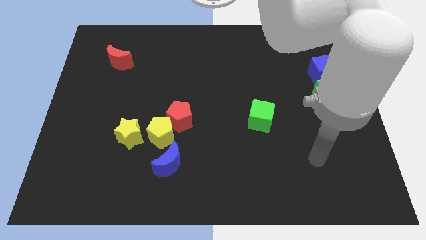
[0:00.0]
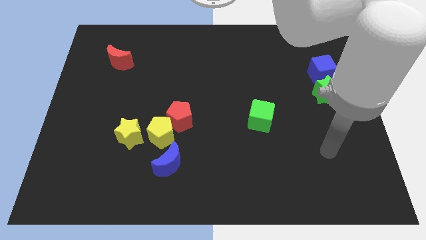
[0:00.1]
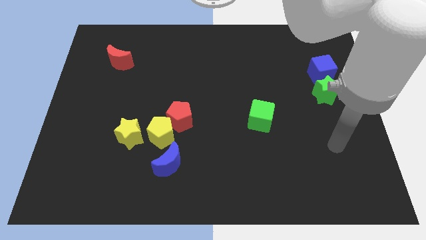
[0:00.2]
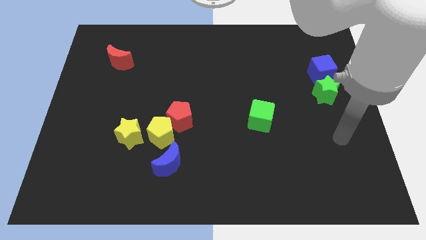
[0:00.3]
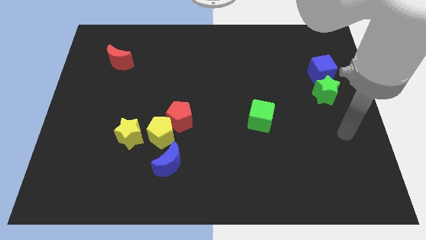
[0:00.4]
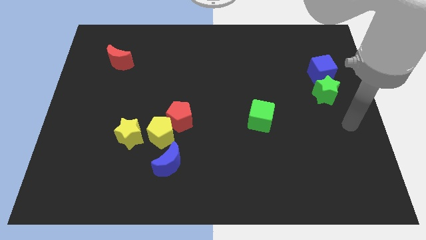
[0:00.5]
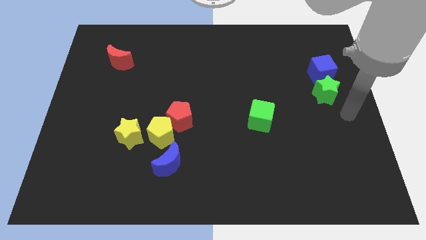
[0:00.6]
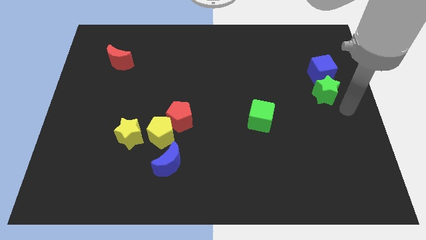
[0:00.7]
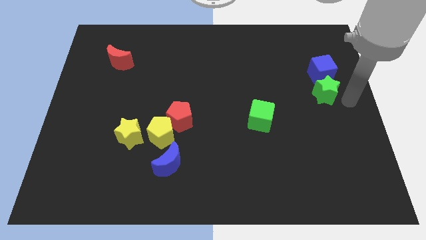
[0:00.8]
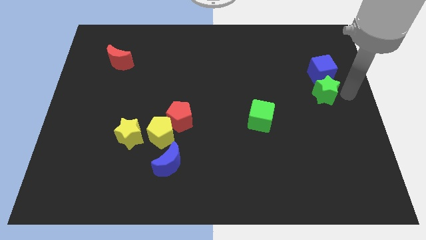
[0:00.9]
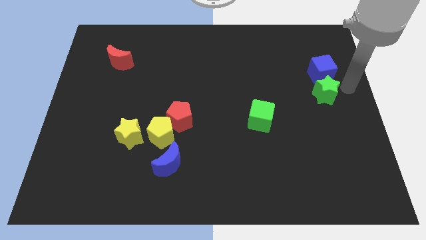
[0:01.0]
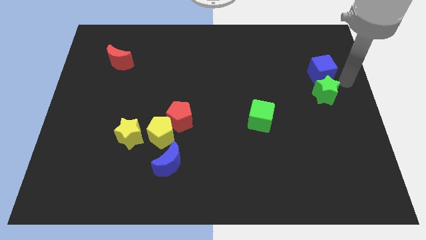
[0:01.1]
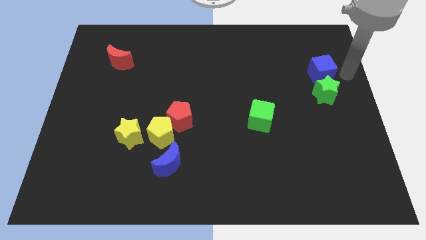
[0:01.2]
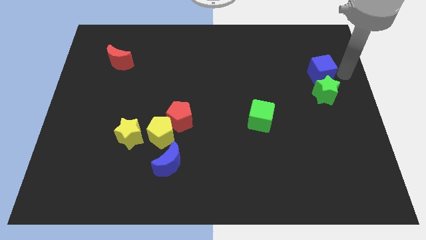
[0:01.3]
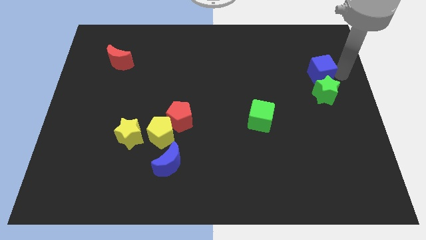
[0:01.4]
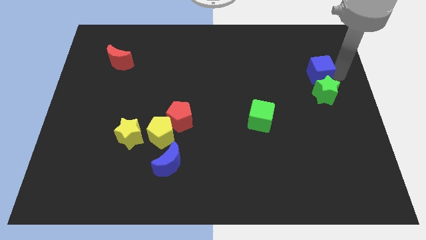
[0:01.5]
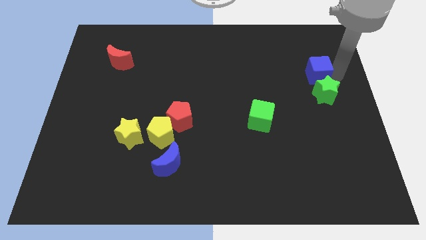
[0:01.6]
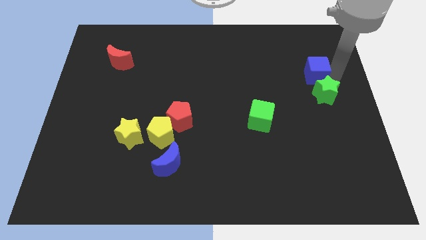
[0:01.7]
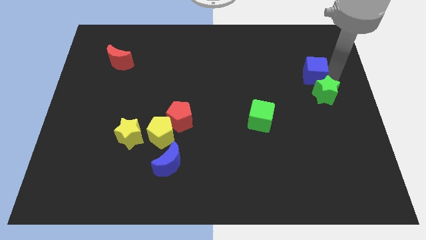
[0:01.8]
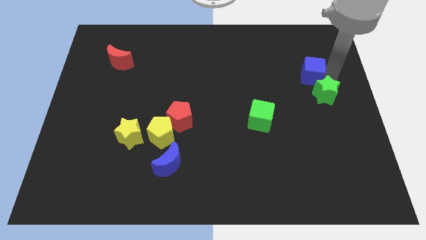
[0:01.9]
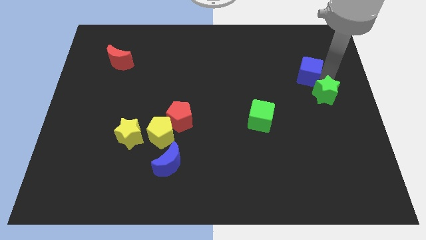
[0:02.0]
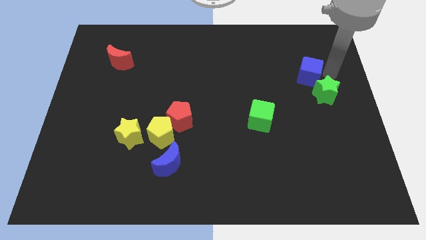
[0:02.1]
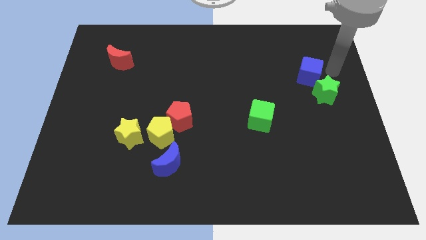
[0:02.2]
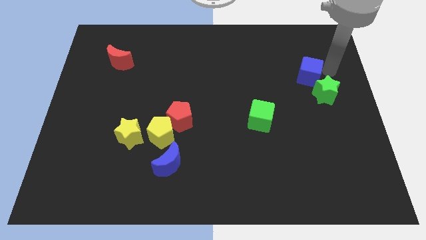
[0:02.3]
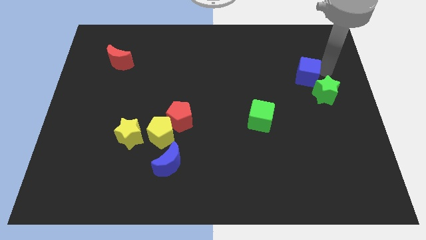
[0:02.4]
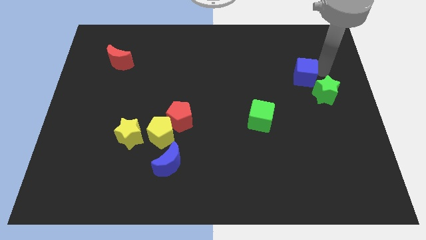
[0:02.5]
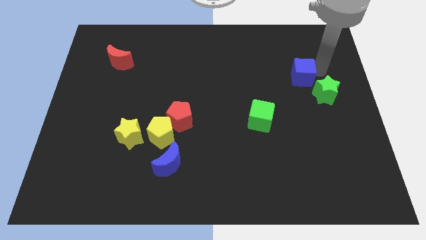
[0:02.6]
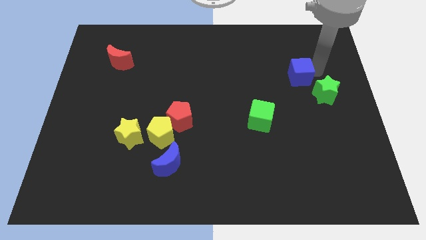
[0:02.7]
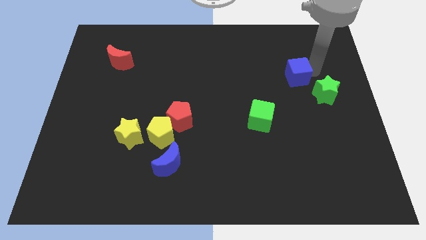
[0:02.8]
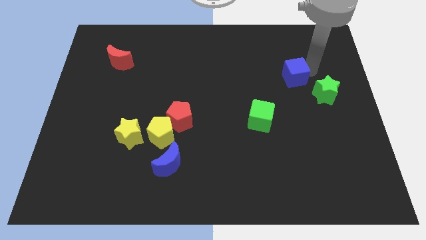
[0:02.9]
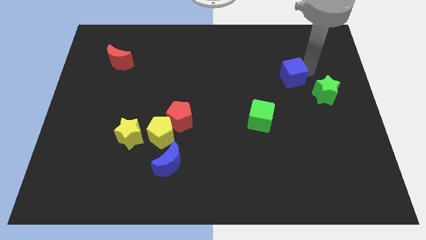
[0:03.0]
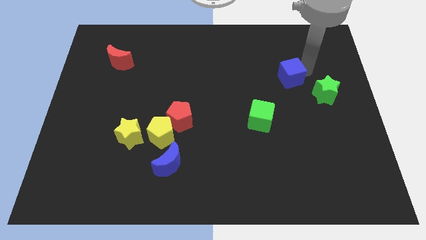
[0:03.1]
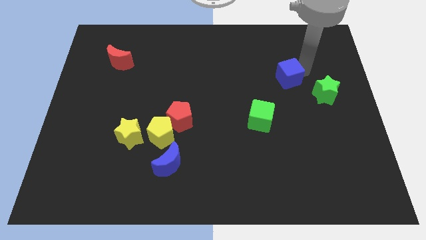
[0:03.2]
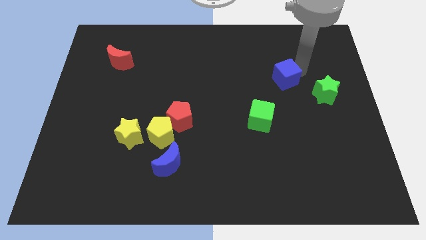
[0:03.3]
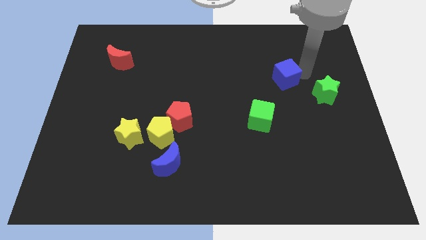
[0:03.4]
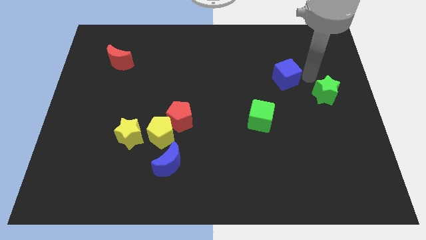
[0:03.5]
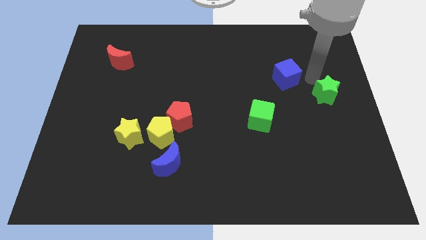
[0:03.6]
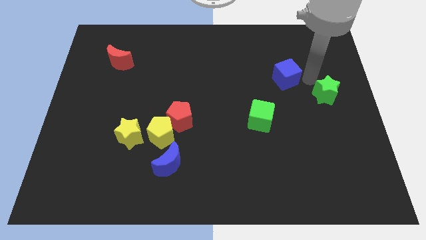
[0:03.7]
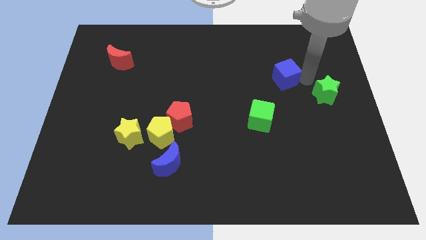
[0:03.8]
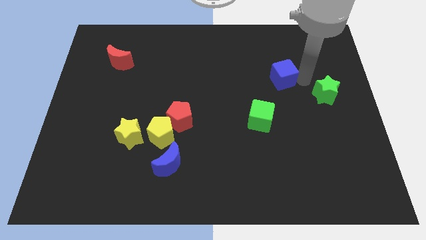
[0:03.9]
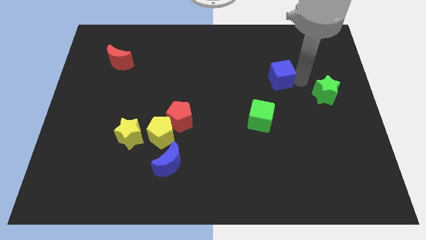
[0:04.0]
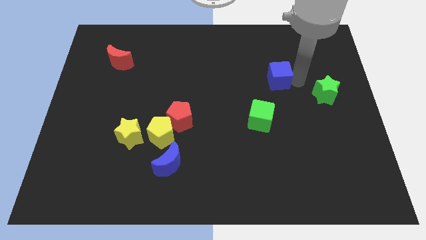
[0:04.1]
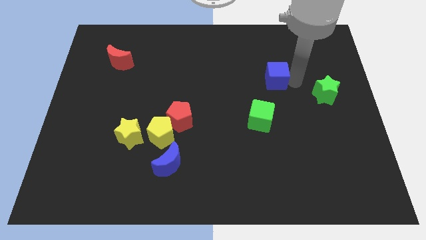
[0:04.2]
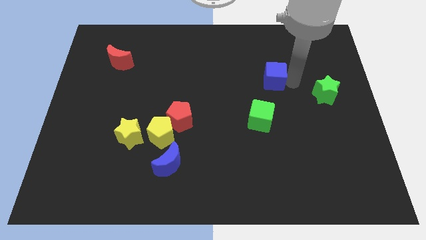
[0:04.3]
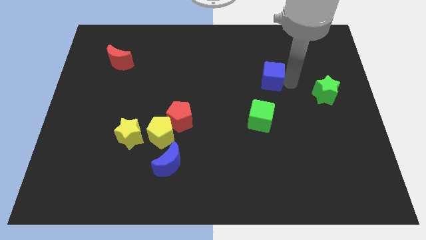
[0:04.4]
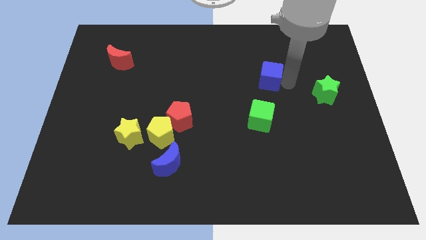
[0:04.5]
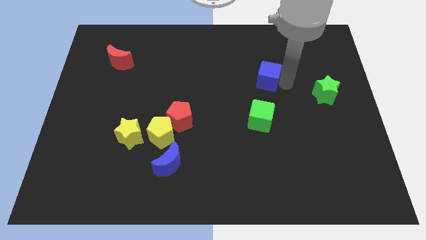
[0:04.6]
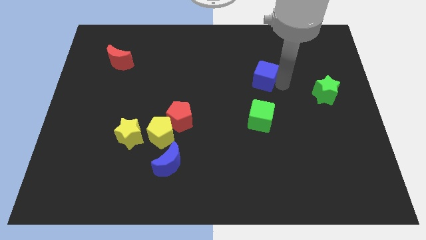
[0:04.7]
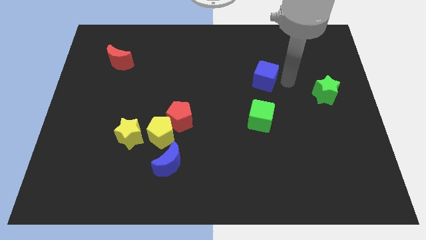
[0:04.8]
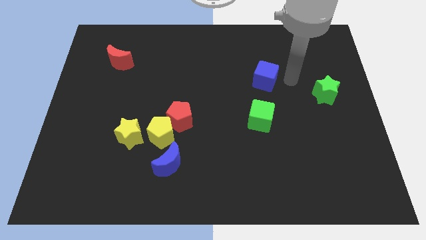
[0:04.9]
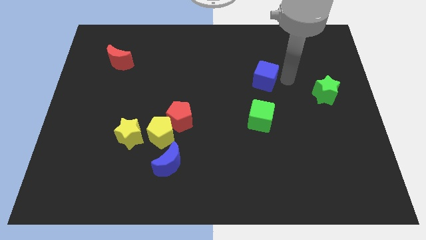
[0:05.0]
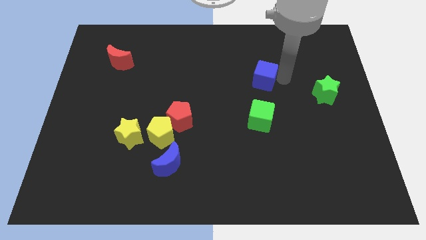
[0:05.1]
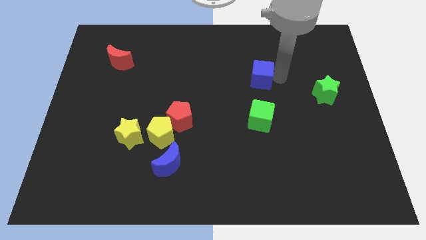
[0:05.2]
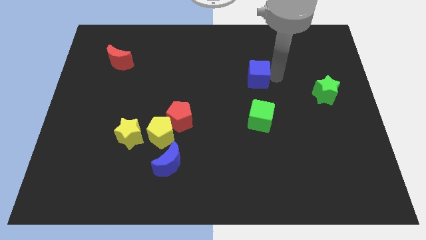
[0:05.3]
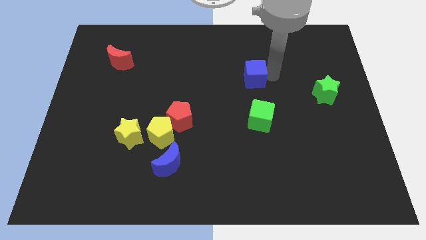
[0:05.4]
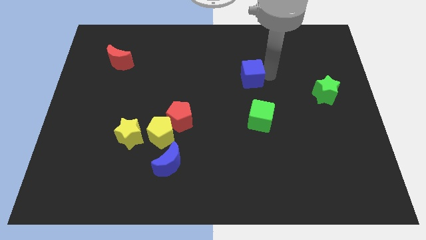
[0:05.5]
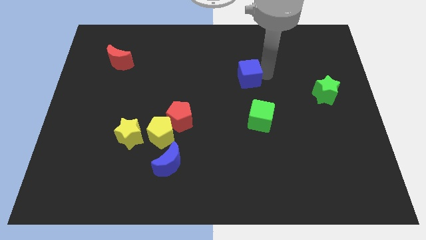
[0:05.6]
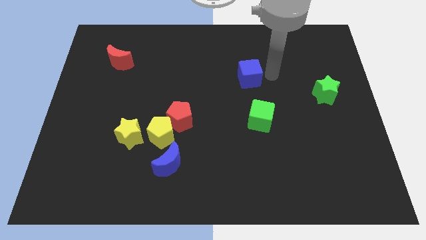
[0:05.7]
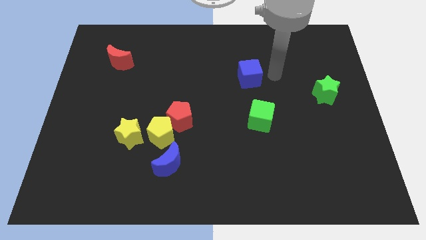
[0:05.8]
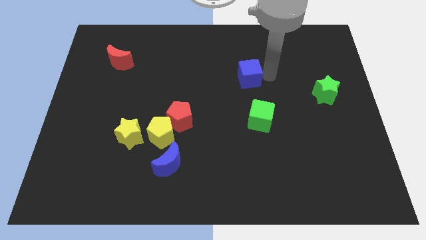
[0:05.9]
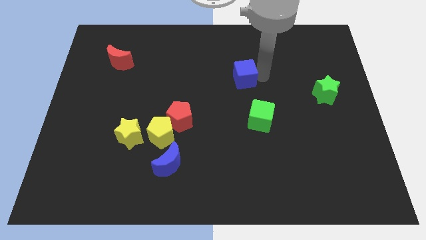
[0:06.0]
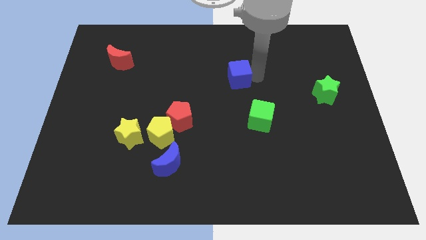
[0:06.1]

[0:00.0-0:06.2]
move the blue cube left

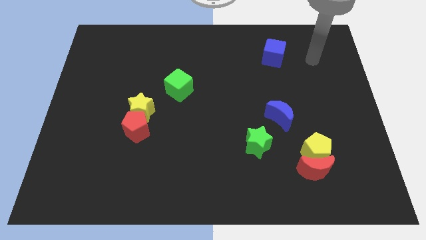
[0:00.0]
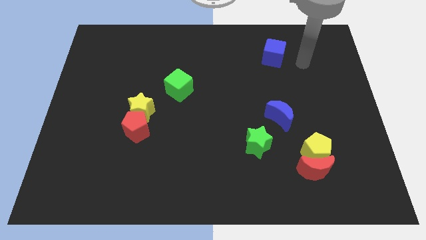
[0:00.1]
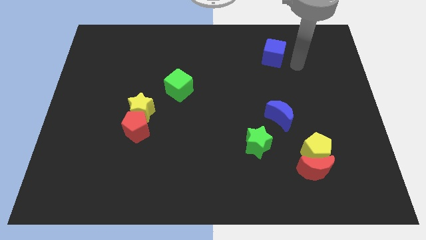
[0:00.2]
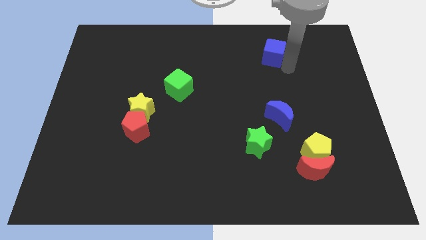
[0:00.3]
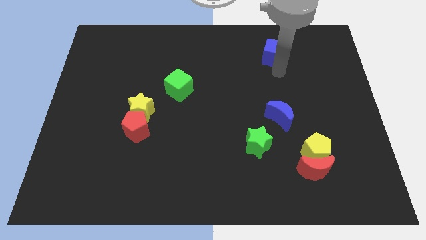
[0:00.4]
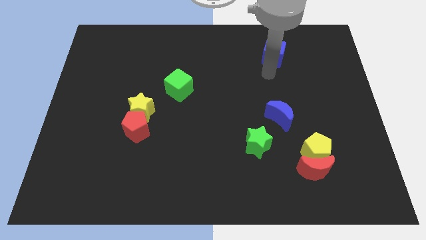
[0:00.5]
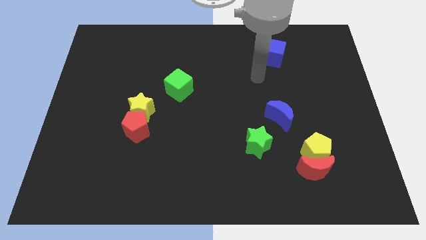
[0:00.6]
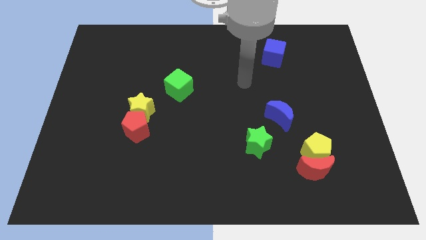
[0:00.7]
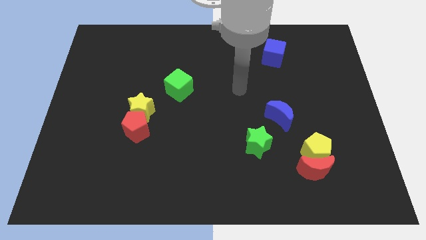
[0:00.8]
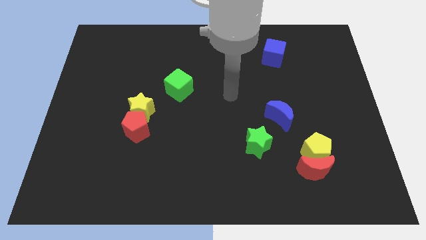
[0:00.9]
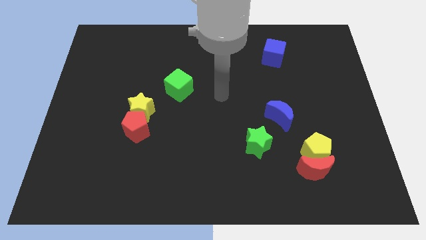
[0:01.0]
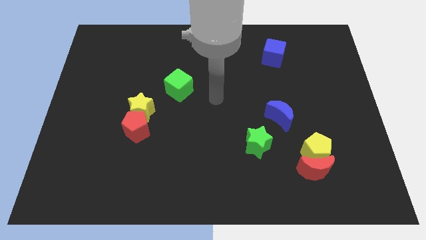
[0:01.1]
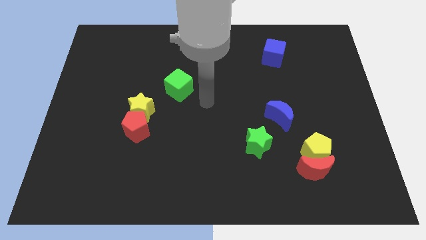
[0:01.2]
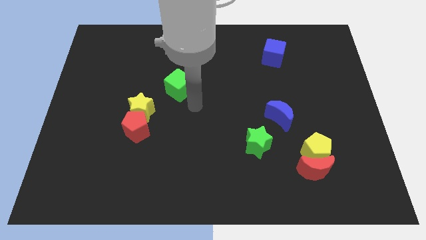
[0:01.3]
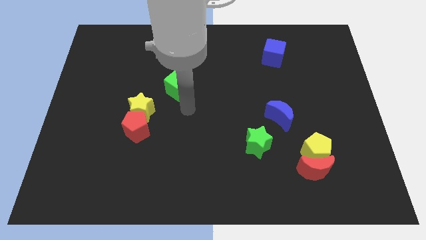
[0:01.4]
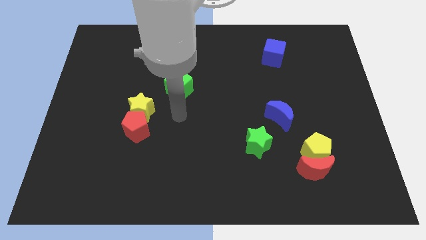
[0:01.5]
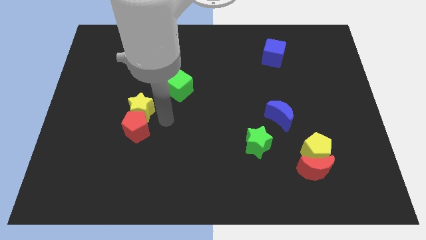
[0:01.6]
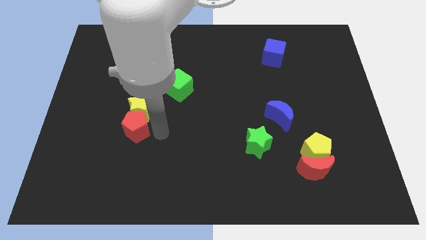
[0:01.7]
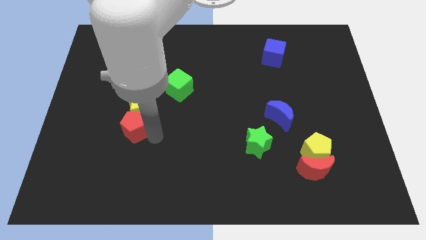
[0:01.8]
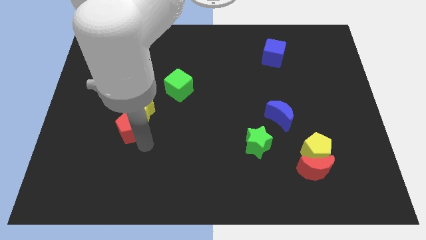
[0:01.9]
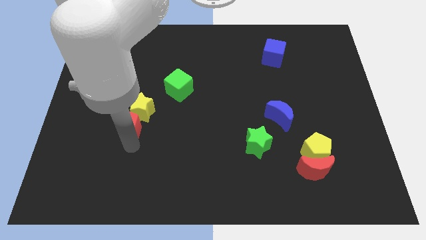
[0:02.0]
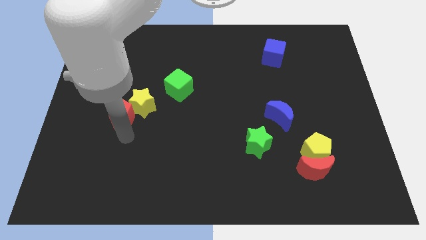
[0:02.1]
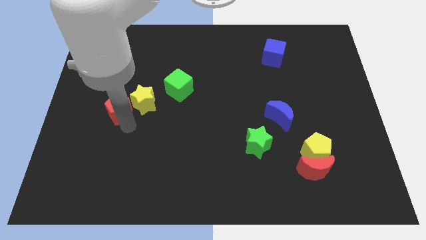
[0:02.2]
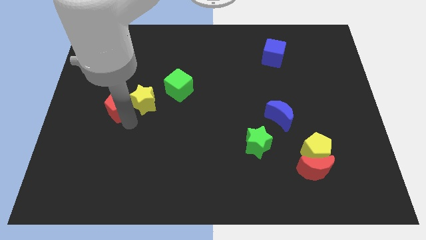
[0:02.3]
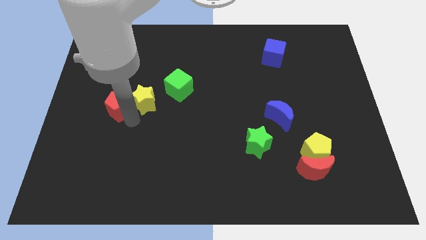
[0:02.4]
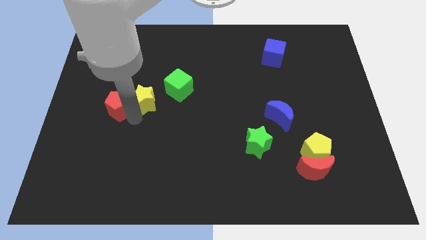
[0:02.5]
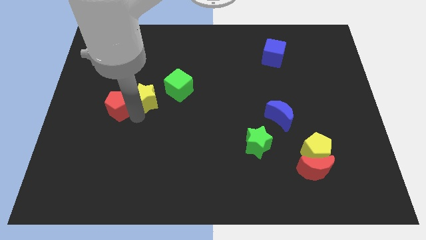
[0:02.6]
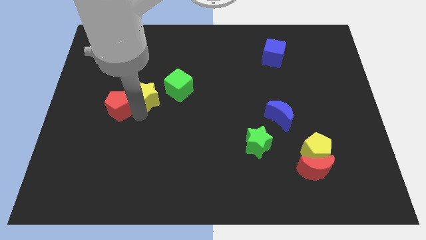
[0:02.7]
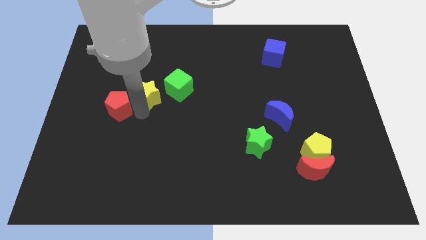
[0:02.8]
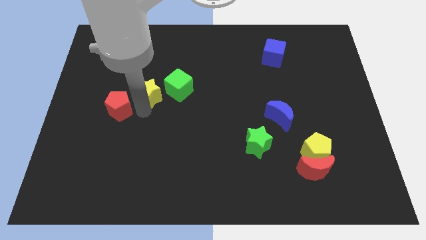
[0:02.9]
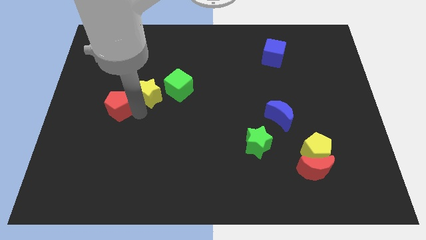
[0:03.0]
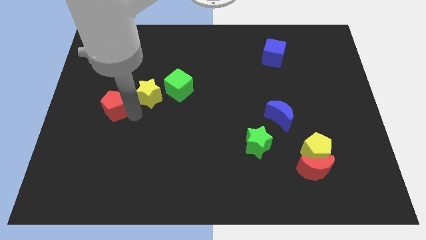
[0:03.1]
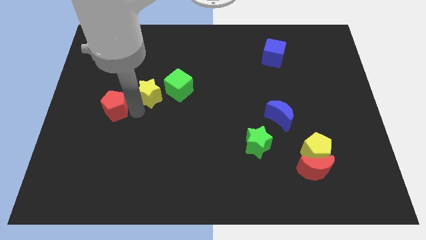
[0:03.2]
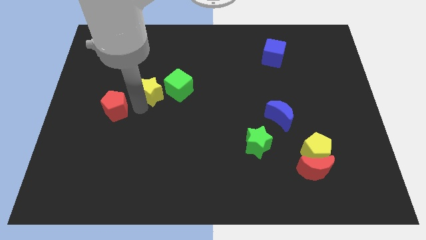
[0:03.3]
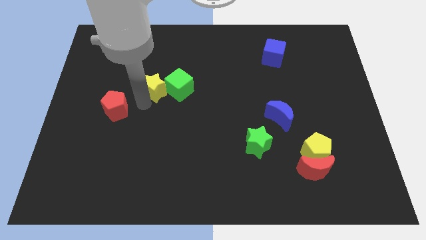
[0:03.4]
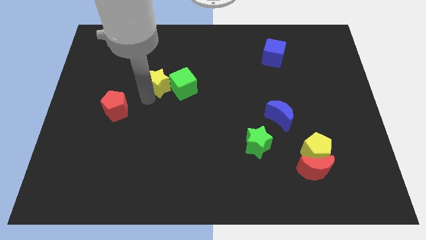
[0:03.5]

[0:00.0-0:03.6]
move the yellow star upwards and right diagonally slightly
